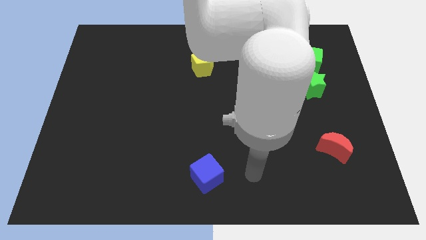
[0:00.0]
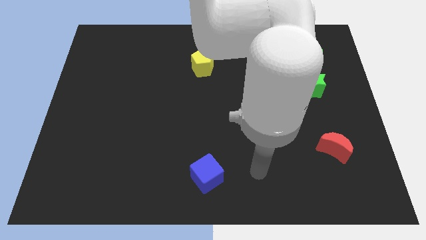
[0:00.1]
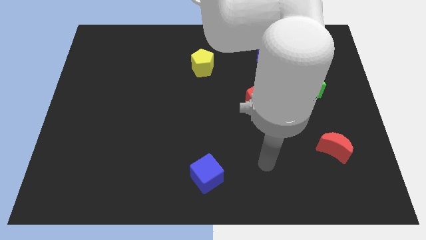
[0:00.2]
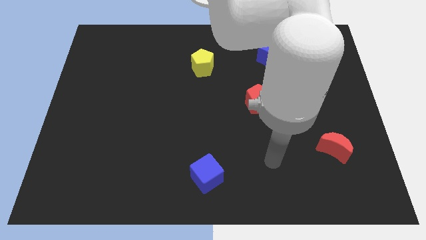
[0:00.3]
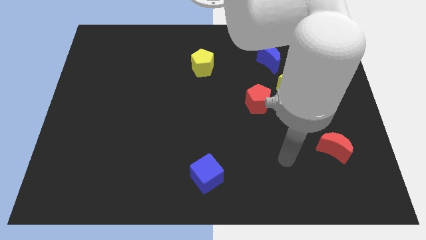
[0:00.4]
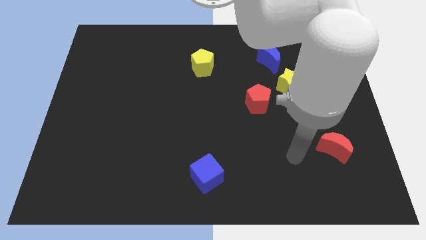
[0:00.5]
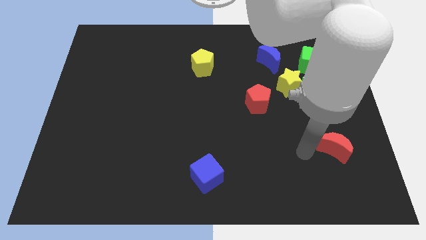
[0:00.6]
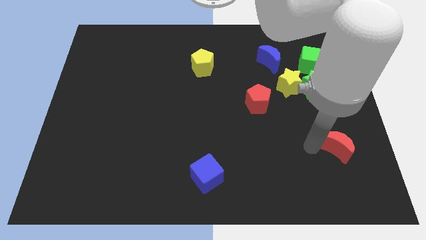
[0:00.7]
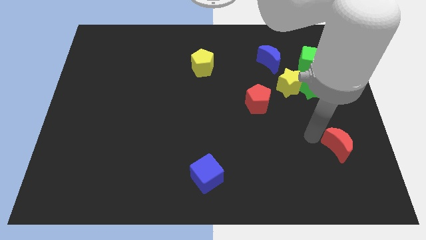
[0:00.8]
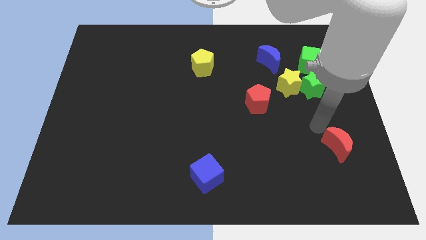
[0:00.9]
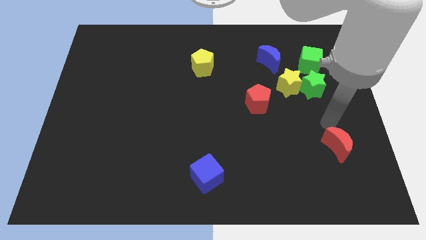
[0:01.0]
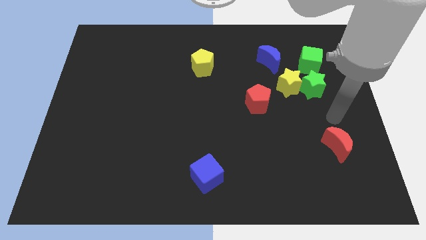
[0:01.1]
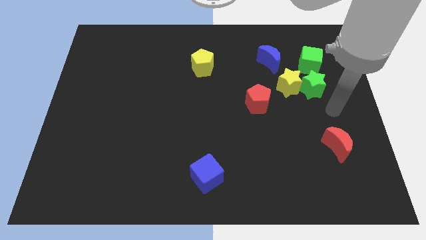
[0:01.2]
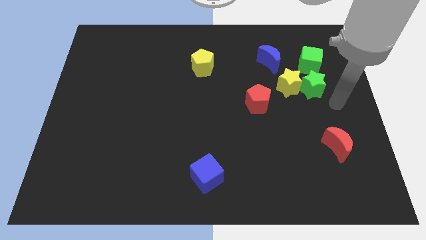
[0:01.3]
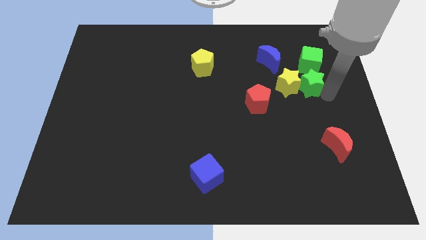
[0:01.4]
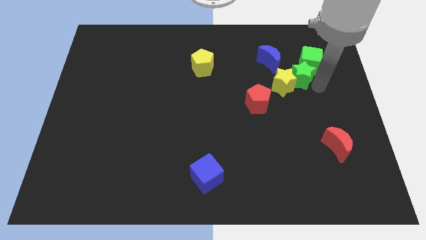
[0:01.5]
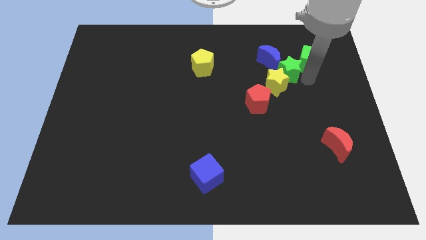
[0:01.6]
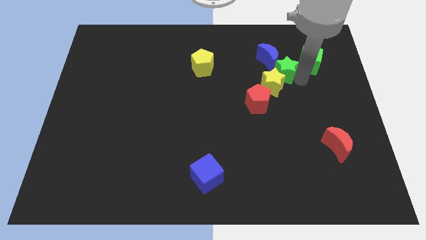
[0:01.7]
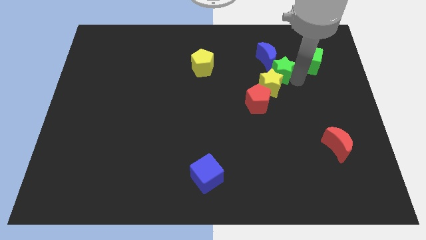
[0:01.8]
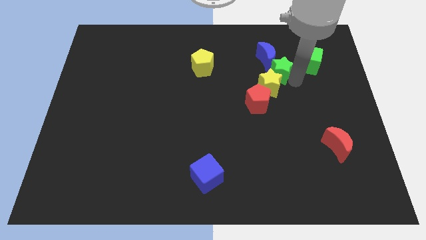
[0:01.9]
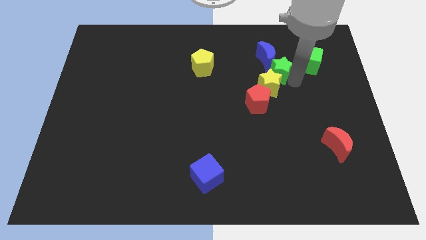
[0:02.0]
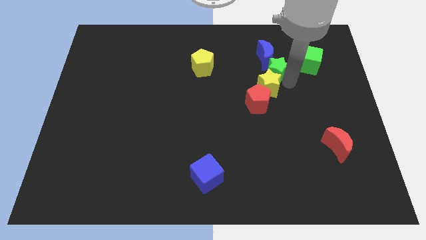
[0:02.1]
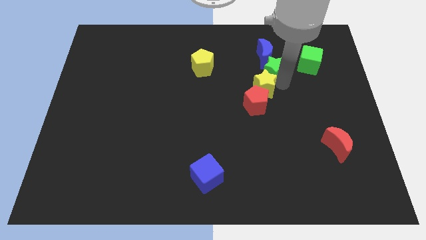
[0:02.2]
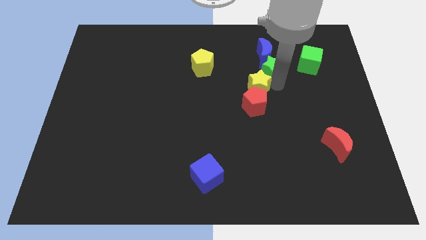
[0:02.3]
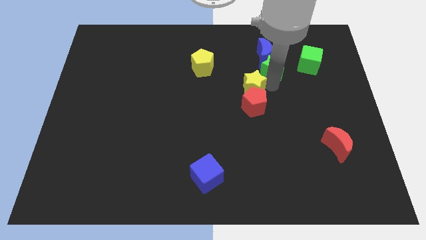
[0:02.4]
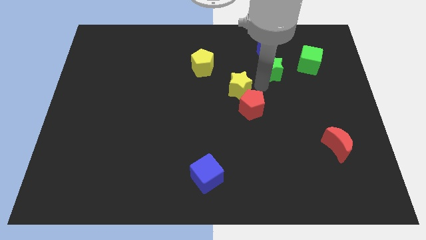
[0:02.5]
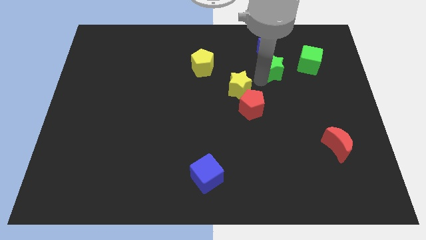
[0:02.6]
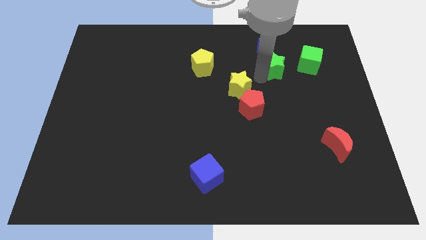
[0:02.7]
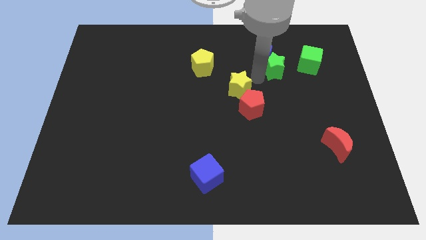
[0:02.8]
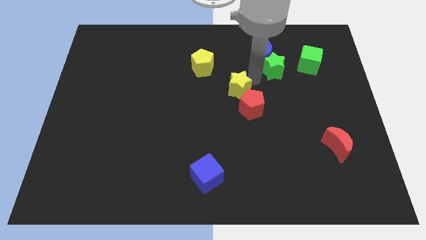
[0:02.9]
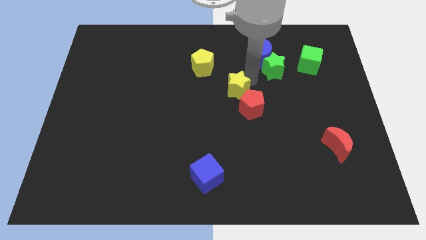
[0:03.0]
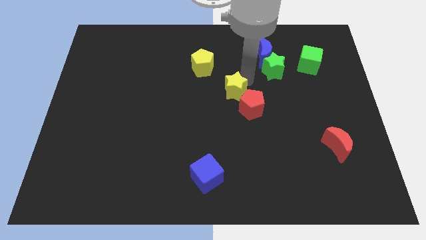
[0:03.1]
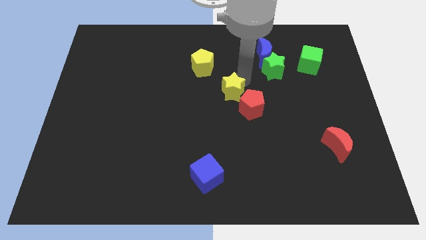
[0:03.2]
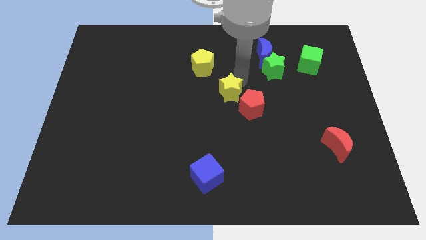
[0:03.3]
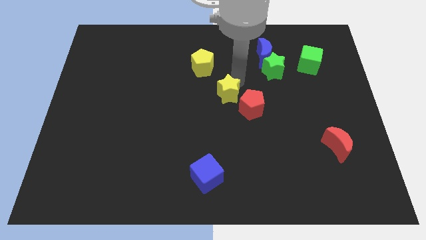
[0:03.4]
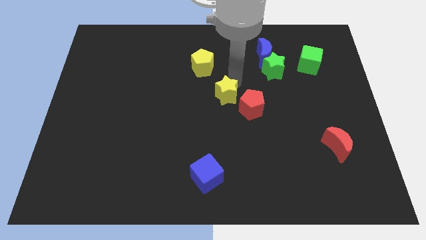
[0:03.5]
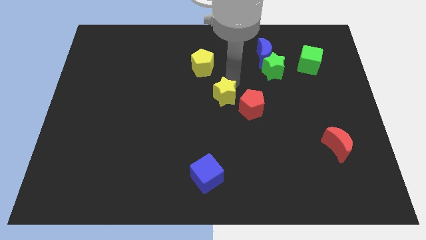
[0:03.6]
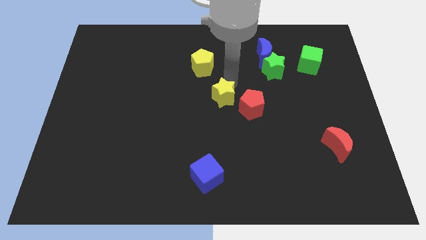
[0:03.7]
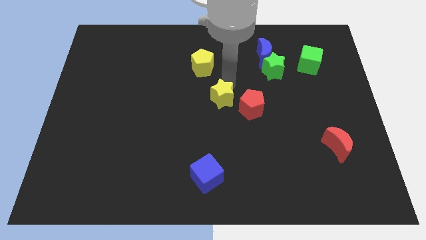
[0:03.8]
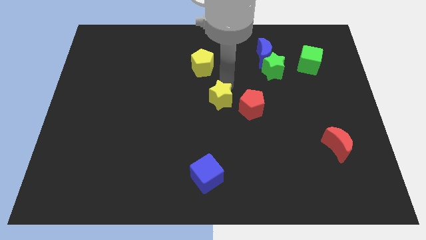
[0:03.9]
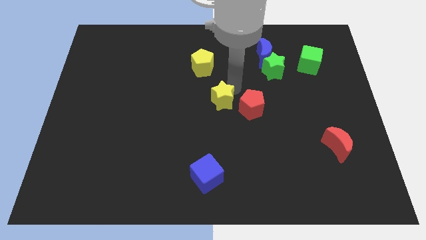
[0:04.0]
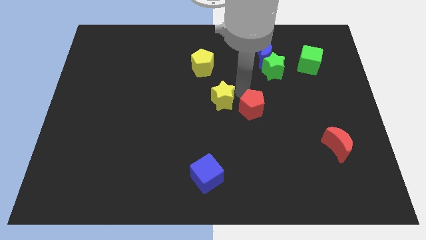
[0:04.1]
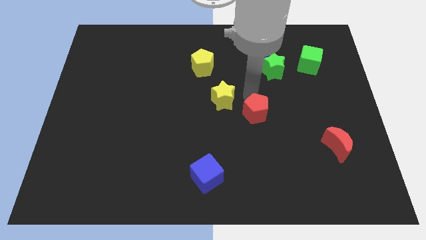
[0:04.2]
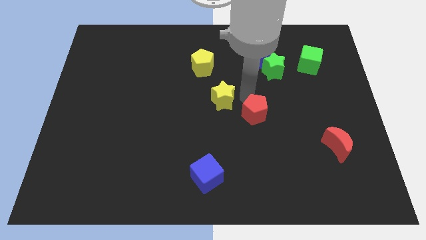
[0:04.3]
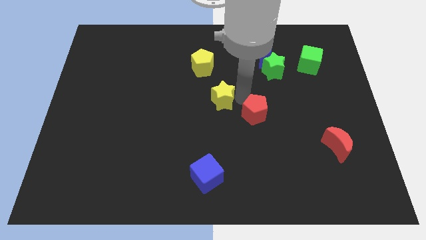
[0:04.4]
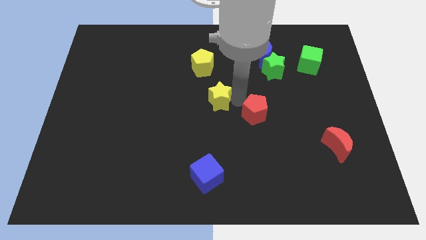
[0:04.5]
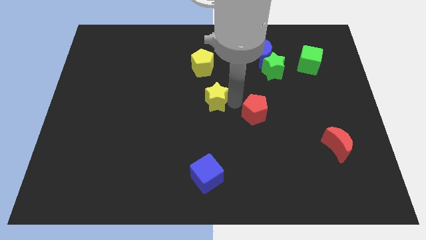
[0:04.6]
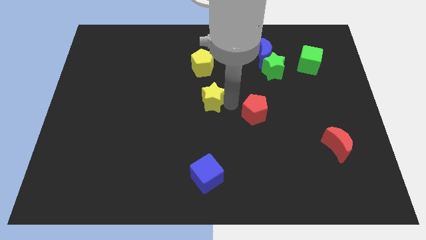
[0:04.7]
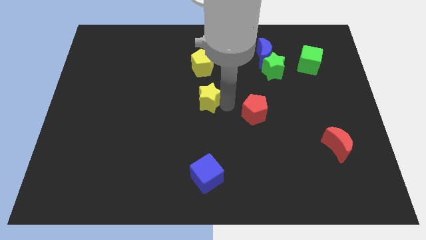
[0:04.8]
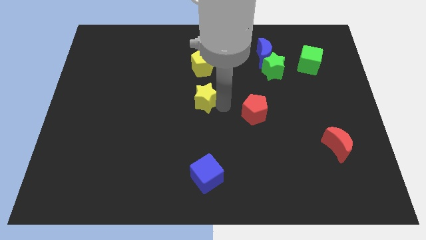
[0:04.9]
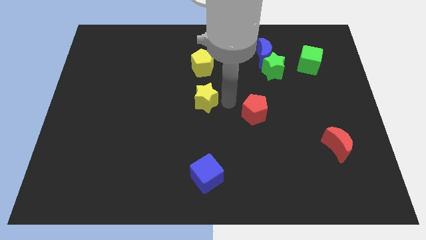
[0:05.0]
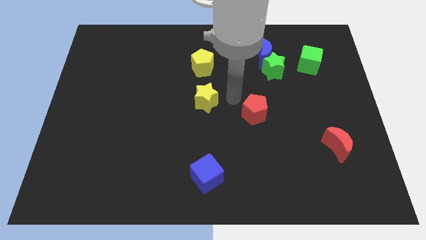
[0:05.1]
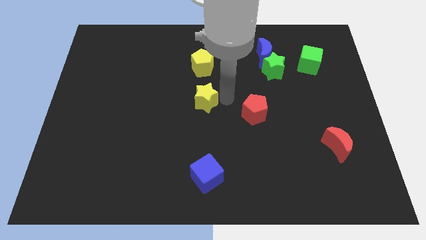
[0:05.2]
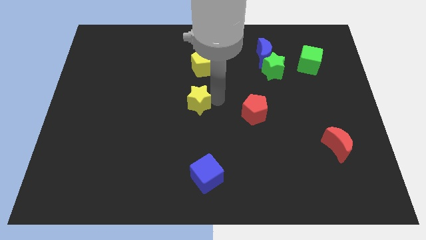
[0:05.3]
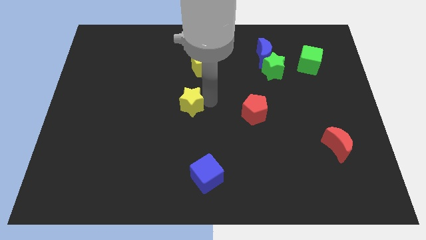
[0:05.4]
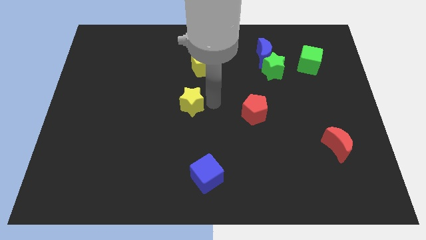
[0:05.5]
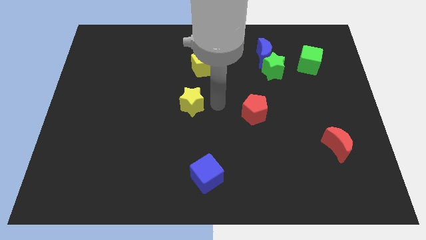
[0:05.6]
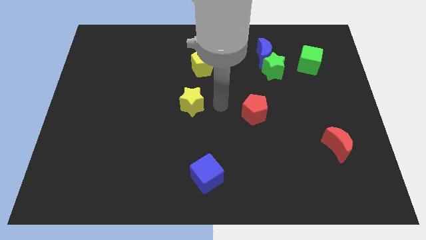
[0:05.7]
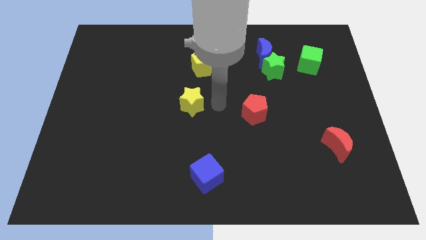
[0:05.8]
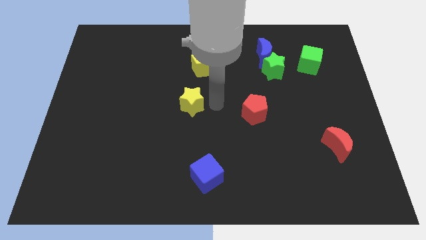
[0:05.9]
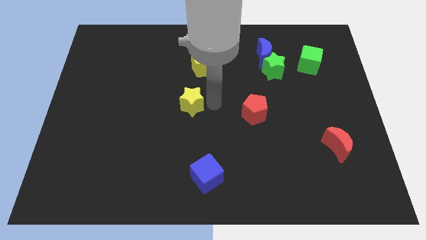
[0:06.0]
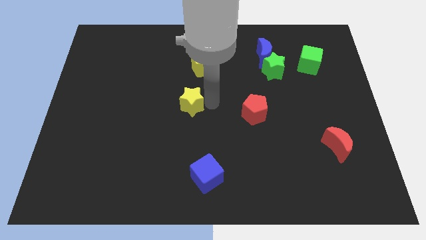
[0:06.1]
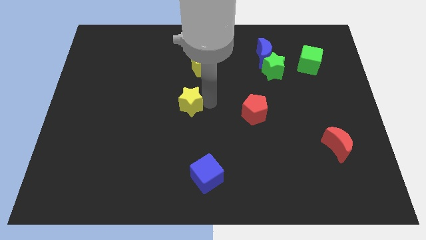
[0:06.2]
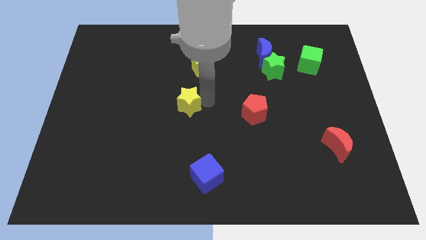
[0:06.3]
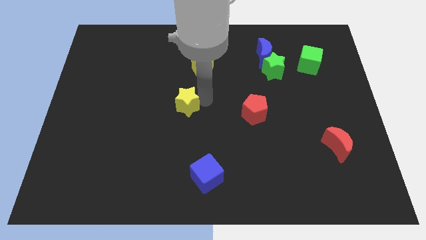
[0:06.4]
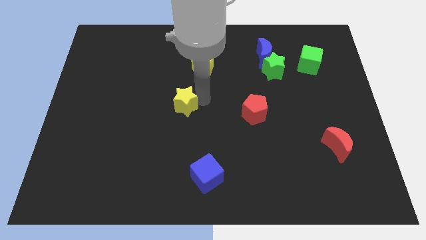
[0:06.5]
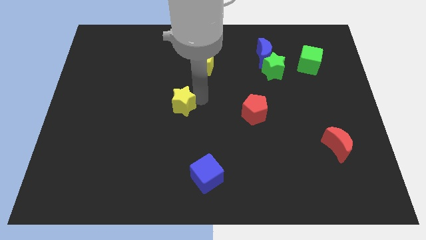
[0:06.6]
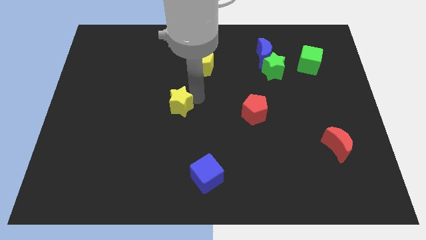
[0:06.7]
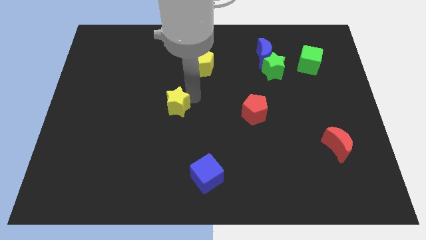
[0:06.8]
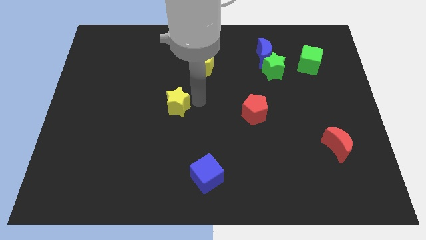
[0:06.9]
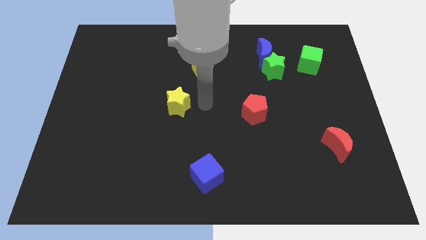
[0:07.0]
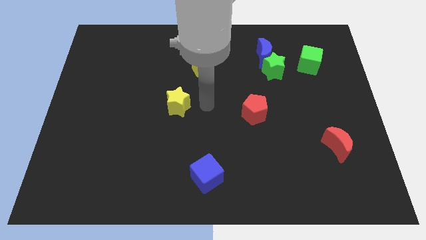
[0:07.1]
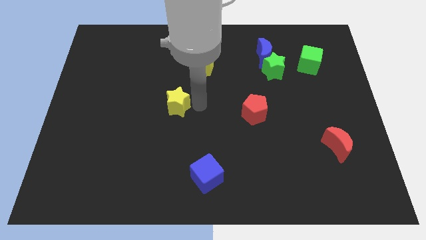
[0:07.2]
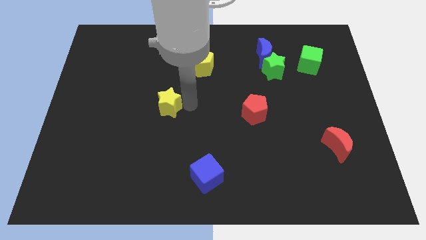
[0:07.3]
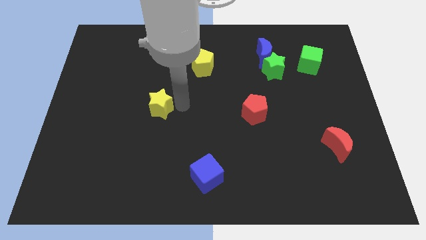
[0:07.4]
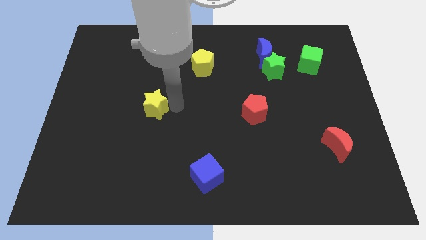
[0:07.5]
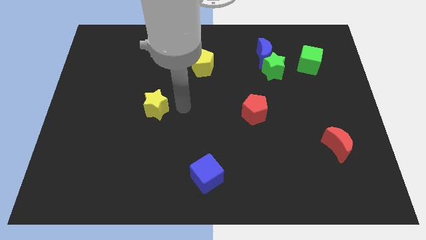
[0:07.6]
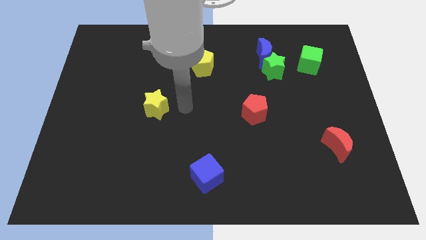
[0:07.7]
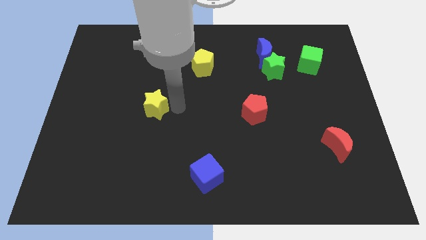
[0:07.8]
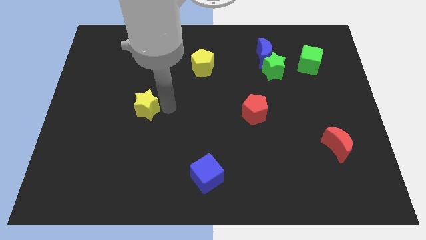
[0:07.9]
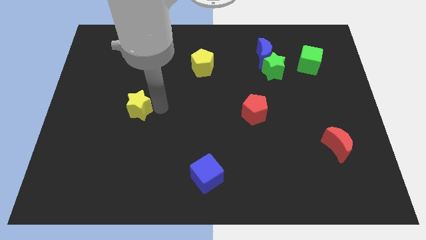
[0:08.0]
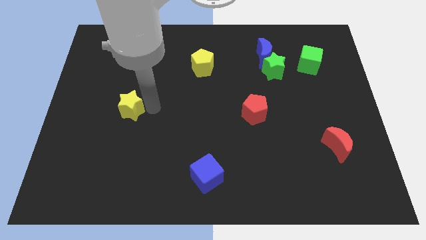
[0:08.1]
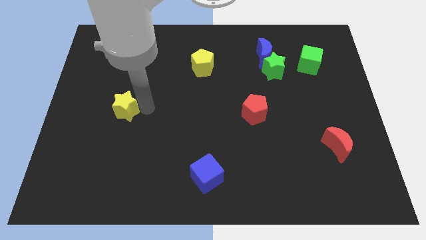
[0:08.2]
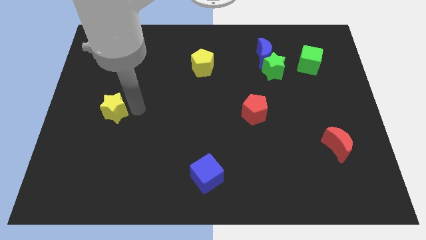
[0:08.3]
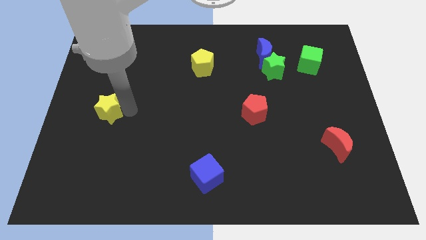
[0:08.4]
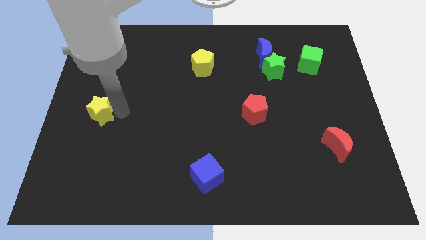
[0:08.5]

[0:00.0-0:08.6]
push the yellow star to the center left
